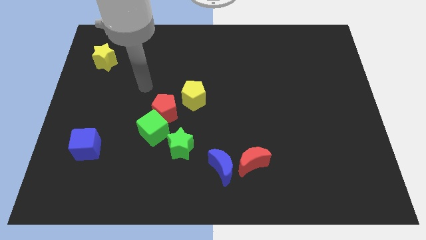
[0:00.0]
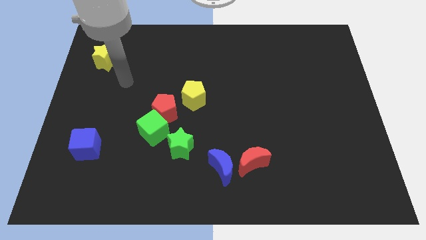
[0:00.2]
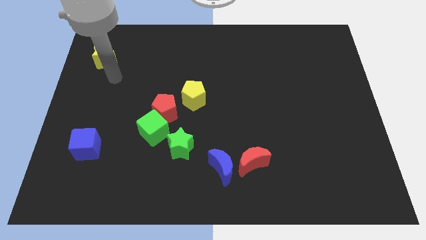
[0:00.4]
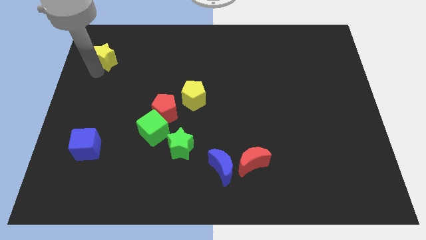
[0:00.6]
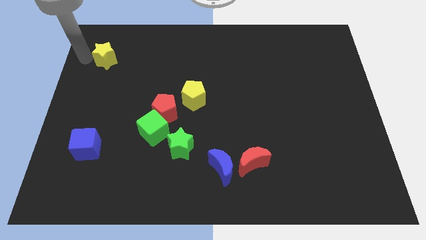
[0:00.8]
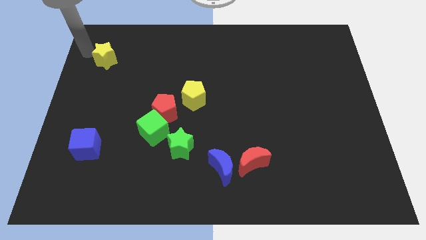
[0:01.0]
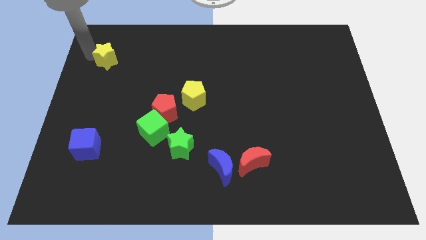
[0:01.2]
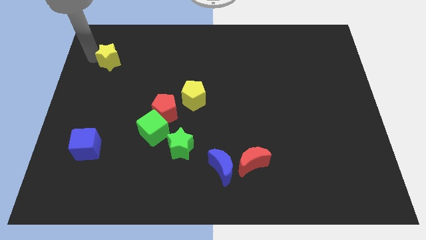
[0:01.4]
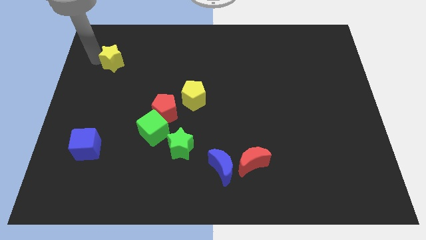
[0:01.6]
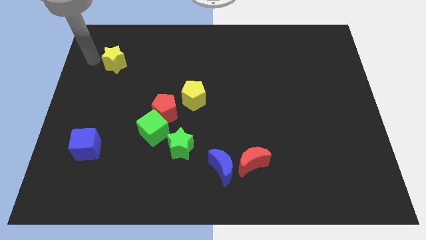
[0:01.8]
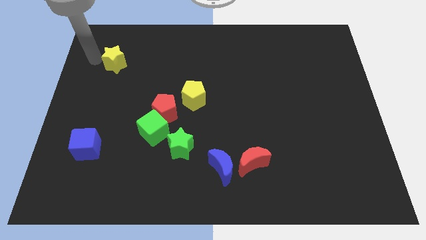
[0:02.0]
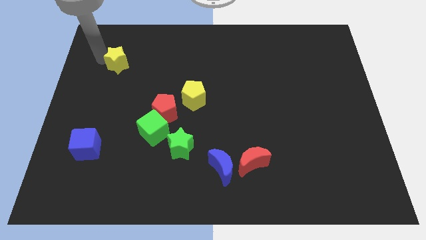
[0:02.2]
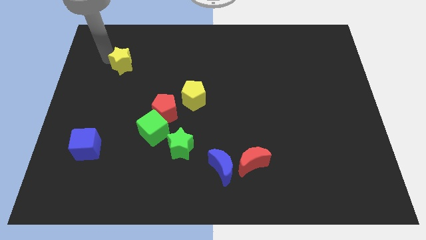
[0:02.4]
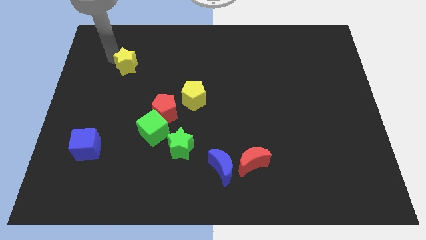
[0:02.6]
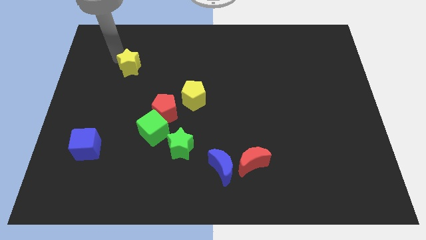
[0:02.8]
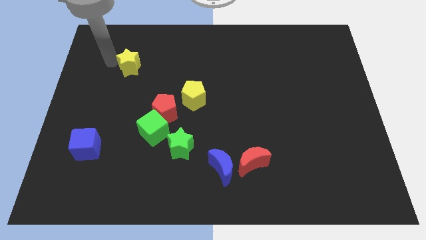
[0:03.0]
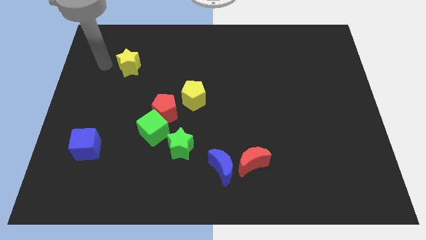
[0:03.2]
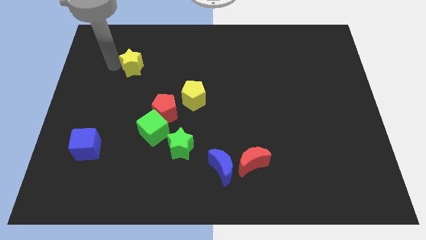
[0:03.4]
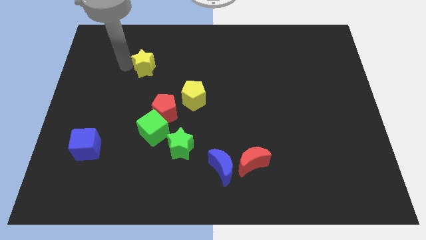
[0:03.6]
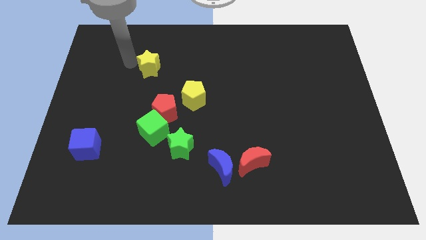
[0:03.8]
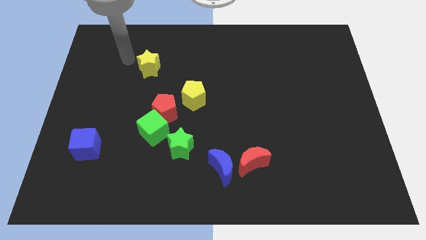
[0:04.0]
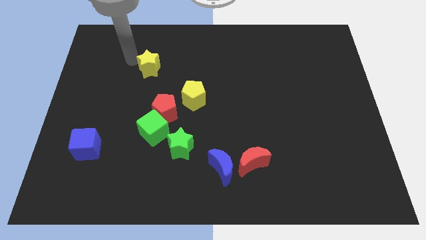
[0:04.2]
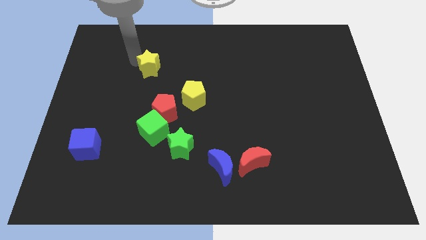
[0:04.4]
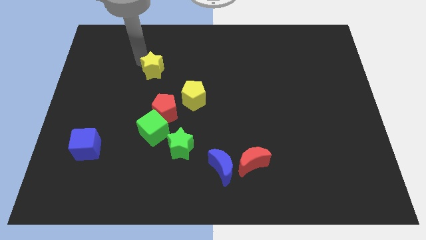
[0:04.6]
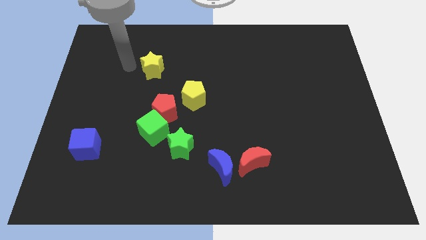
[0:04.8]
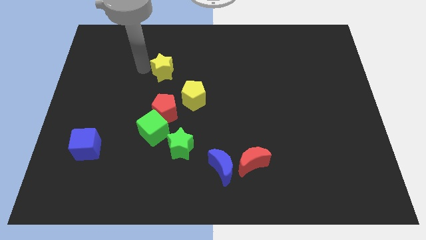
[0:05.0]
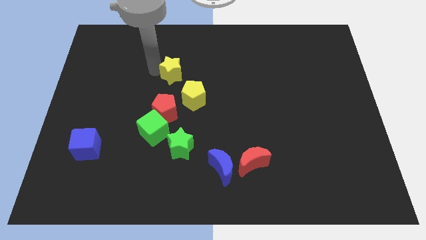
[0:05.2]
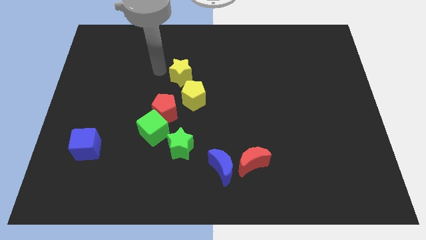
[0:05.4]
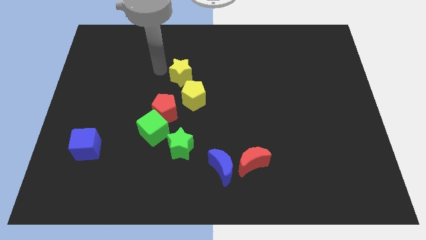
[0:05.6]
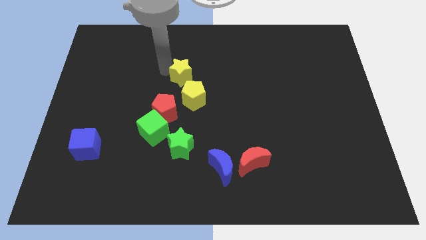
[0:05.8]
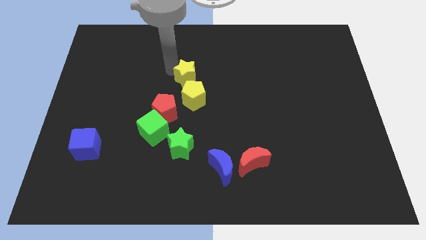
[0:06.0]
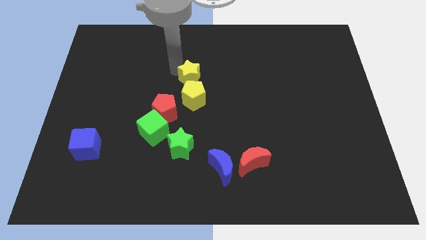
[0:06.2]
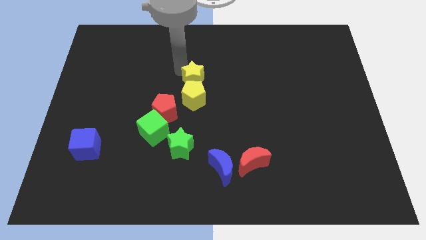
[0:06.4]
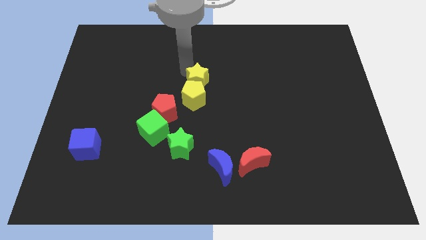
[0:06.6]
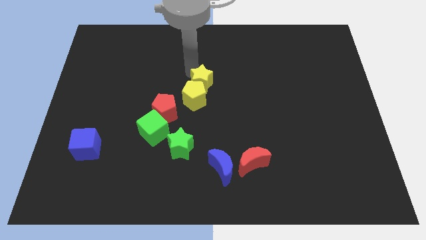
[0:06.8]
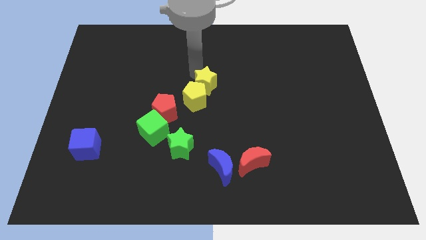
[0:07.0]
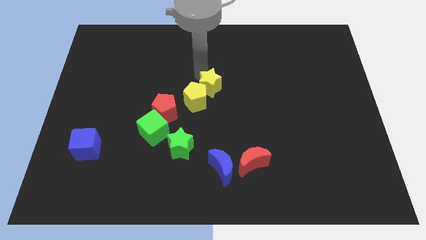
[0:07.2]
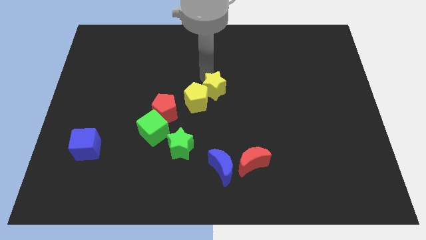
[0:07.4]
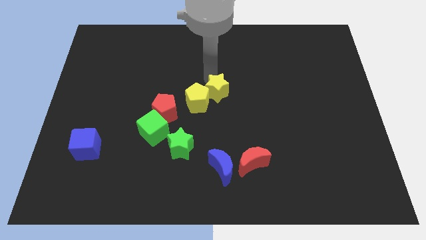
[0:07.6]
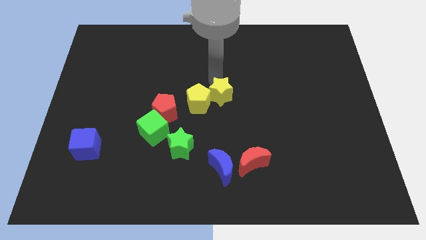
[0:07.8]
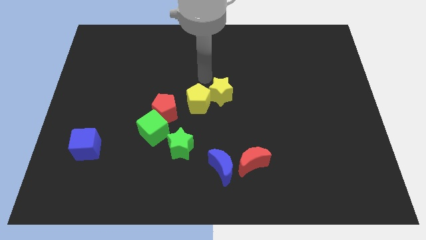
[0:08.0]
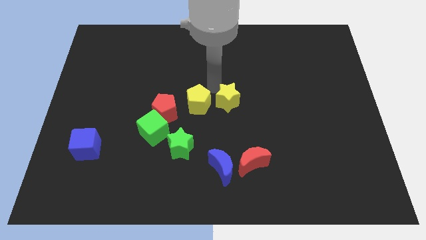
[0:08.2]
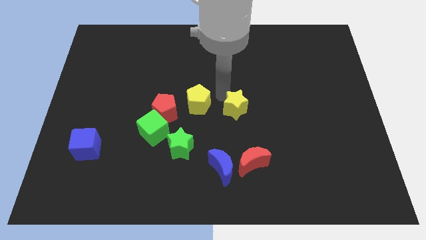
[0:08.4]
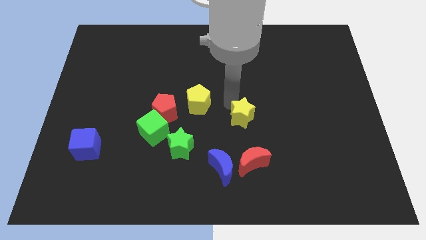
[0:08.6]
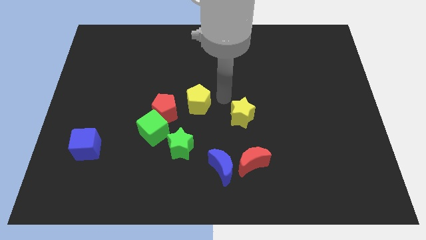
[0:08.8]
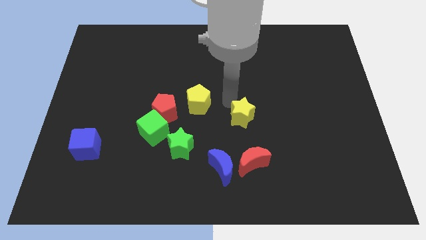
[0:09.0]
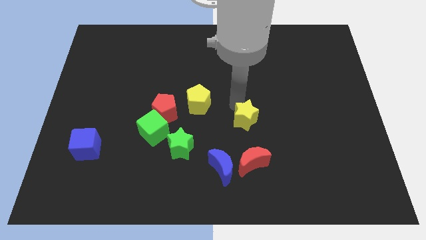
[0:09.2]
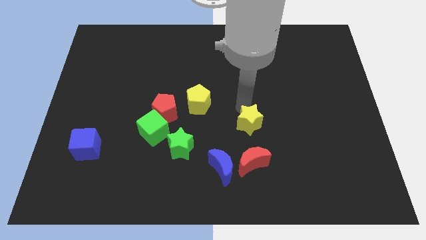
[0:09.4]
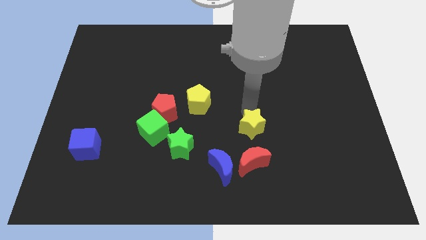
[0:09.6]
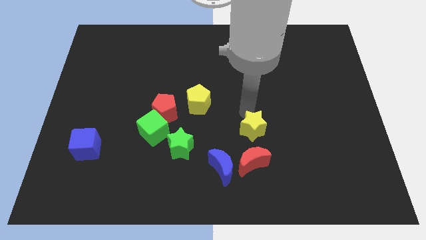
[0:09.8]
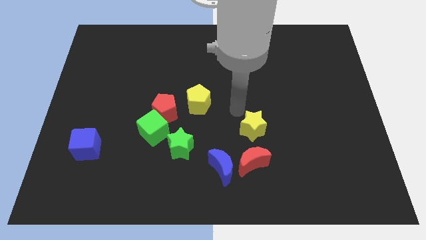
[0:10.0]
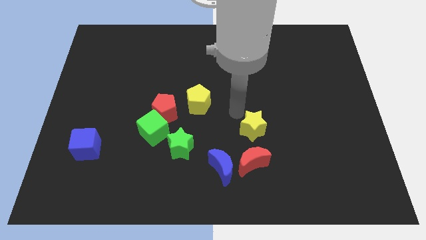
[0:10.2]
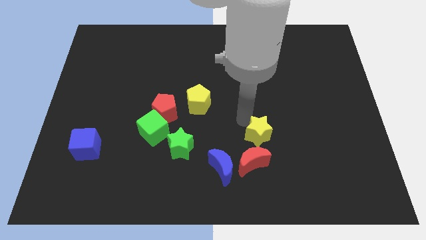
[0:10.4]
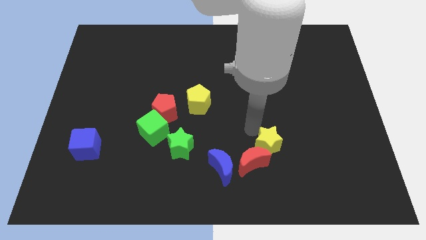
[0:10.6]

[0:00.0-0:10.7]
put the yellow star right of the red moon

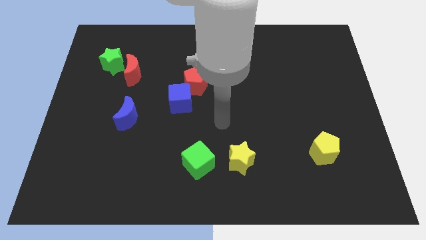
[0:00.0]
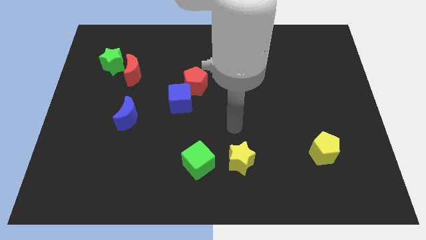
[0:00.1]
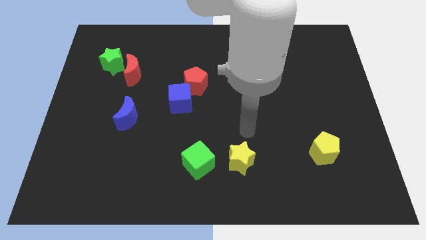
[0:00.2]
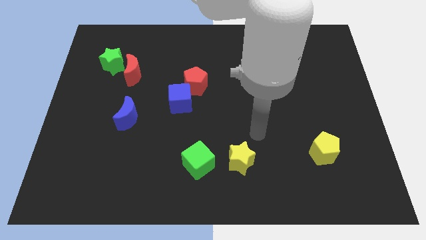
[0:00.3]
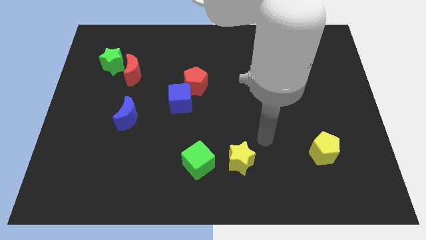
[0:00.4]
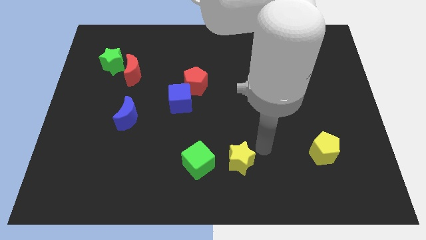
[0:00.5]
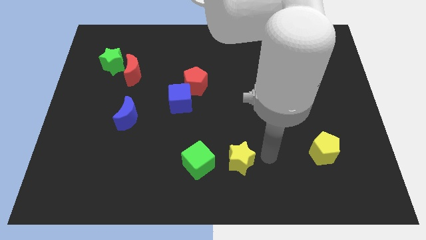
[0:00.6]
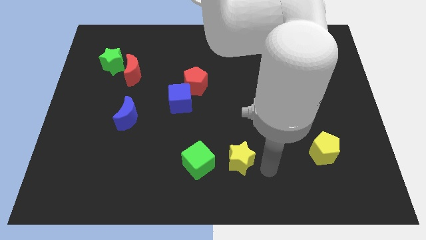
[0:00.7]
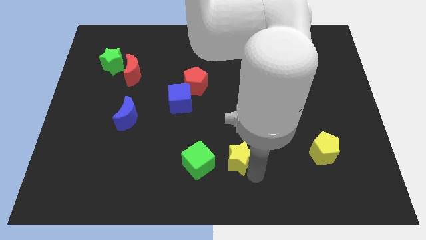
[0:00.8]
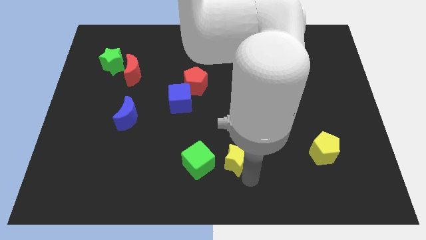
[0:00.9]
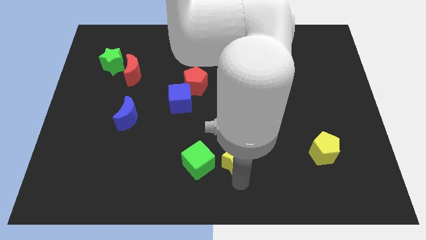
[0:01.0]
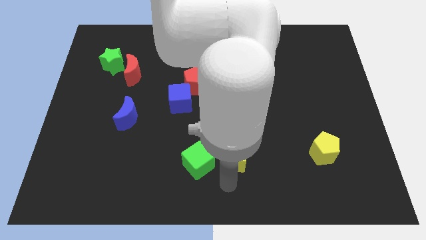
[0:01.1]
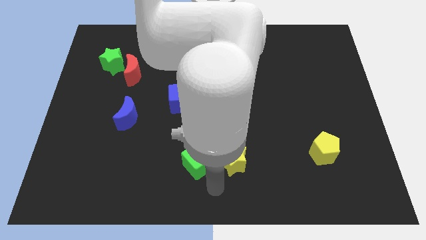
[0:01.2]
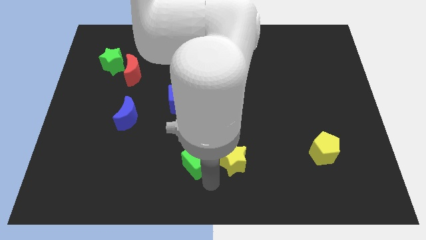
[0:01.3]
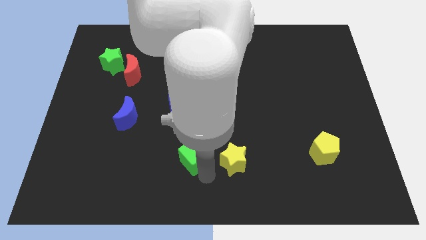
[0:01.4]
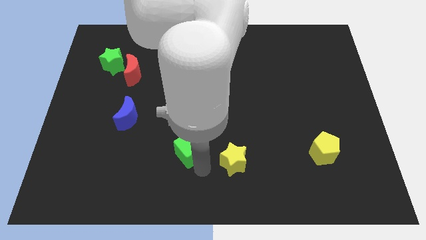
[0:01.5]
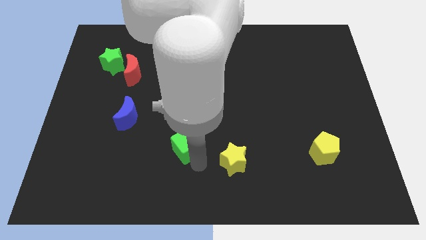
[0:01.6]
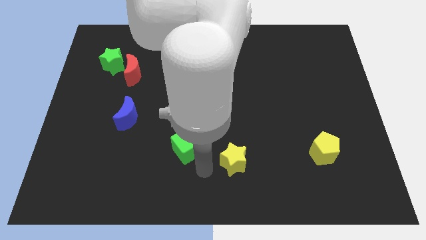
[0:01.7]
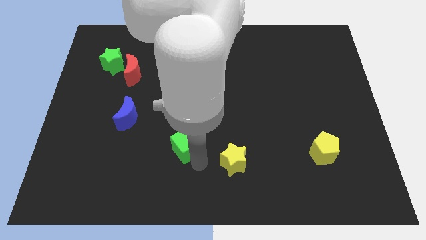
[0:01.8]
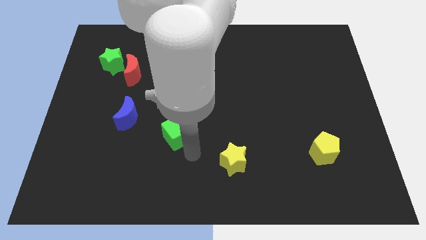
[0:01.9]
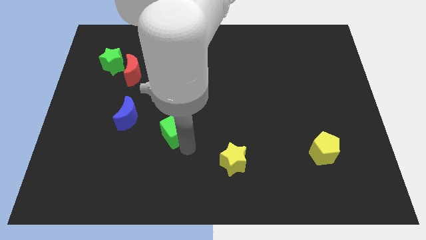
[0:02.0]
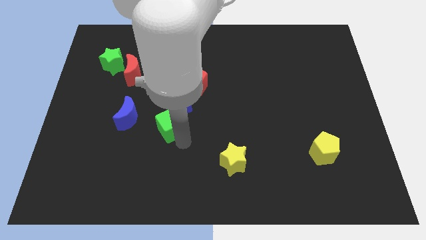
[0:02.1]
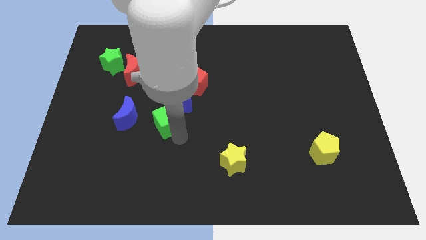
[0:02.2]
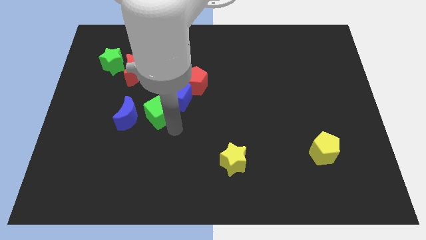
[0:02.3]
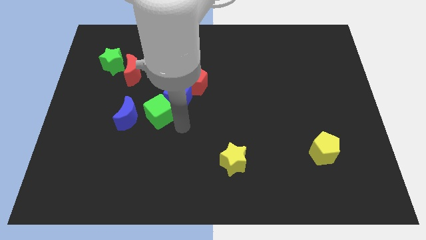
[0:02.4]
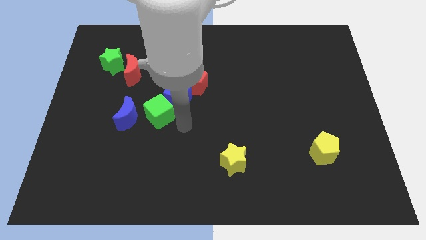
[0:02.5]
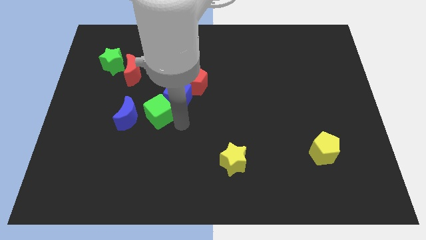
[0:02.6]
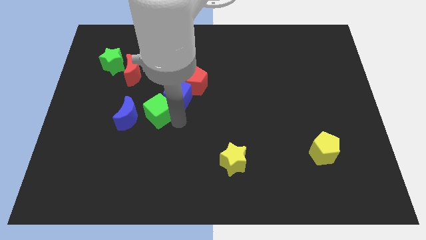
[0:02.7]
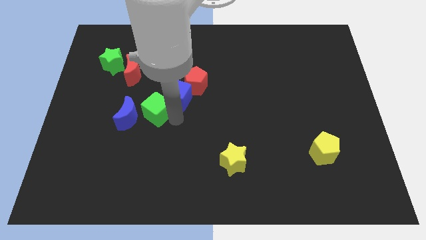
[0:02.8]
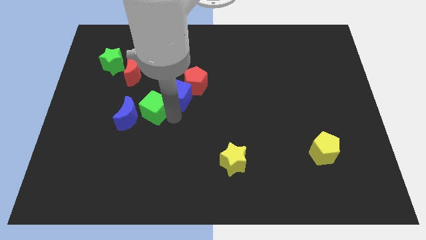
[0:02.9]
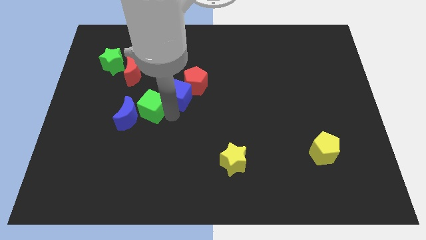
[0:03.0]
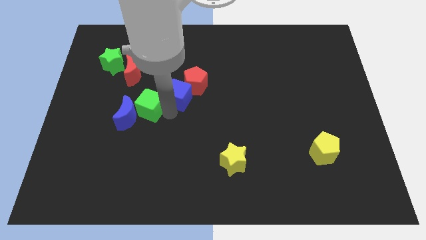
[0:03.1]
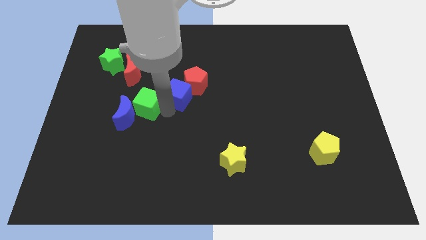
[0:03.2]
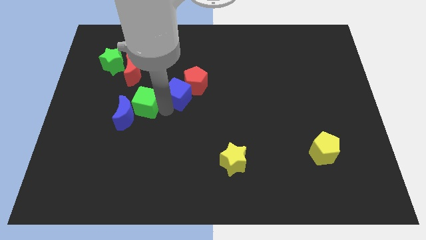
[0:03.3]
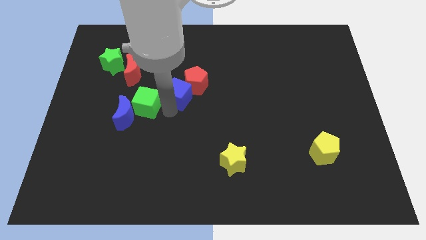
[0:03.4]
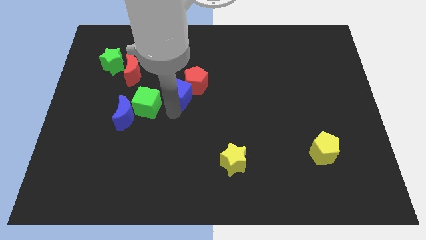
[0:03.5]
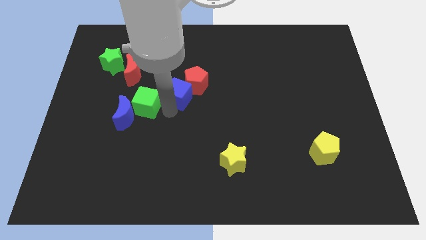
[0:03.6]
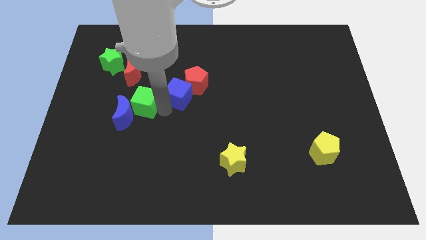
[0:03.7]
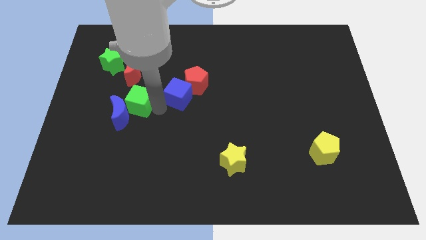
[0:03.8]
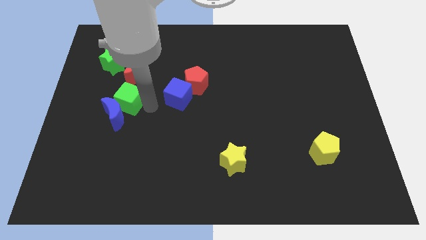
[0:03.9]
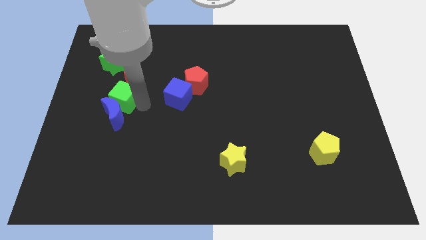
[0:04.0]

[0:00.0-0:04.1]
put the green cube to the bottom of the green star
